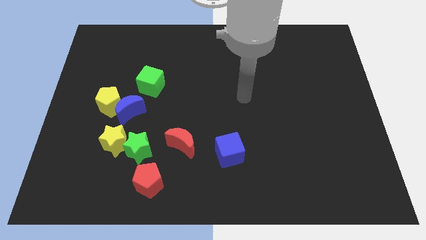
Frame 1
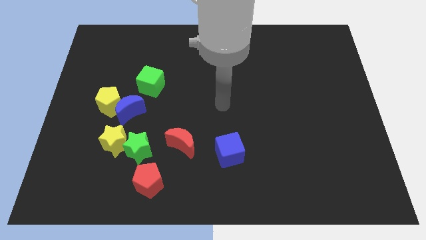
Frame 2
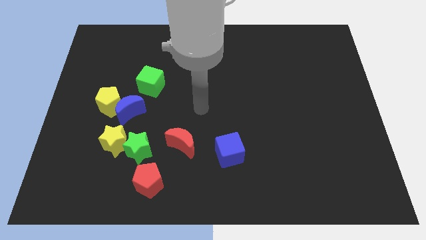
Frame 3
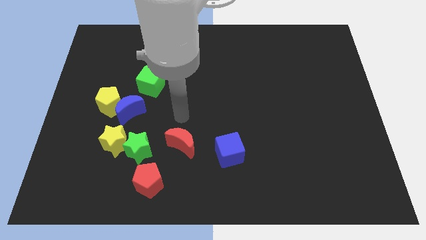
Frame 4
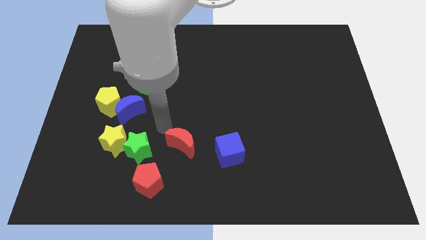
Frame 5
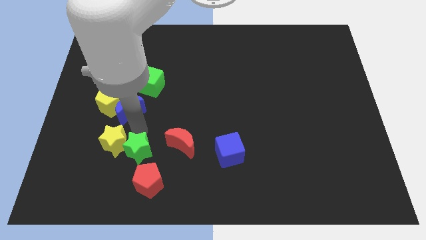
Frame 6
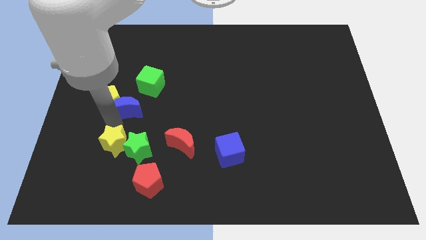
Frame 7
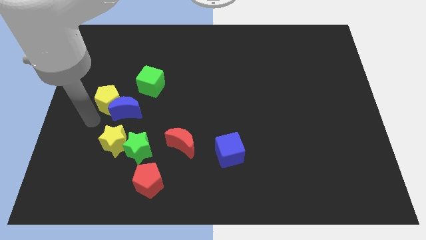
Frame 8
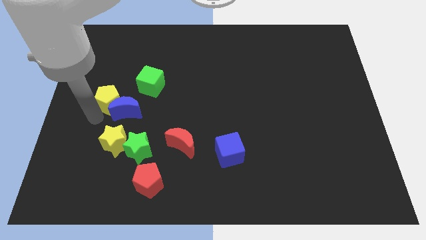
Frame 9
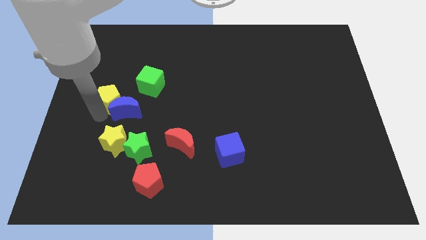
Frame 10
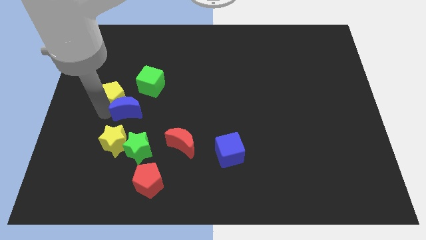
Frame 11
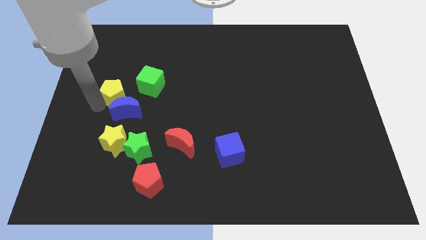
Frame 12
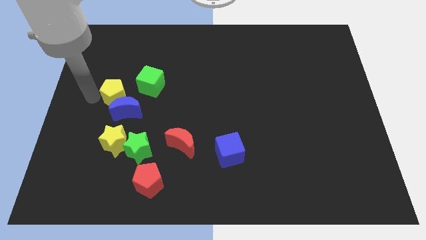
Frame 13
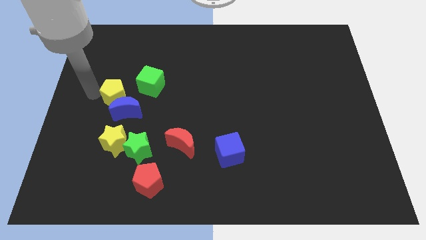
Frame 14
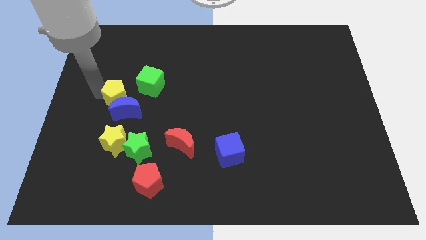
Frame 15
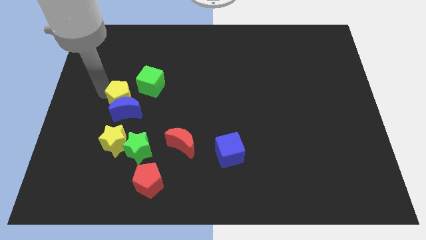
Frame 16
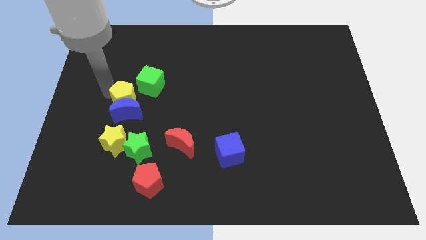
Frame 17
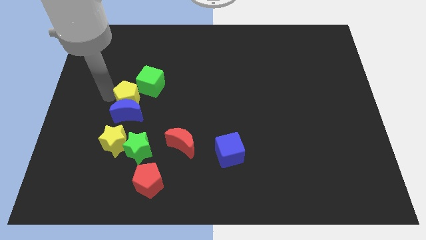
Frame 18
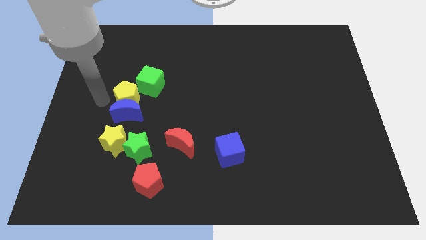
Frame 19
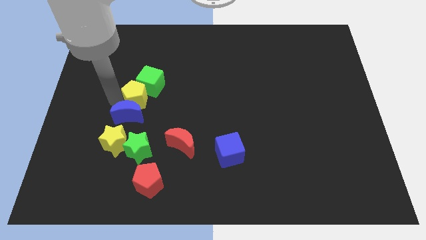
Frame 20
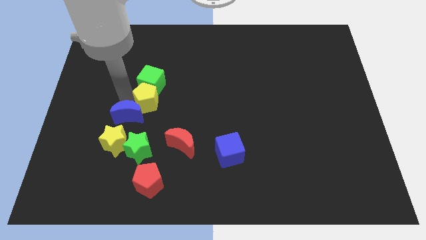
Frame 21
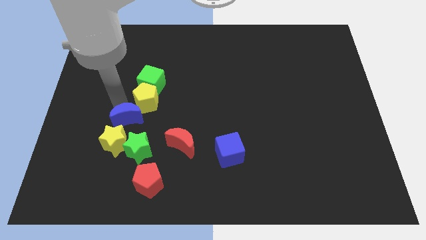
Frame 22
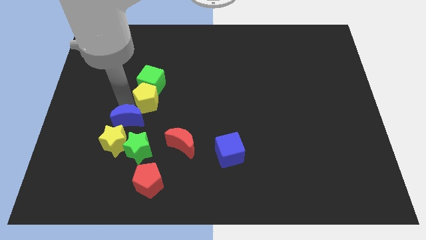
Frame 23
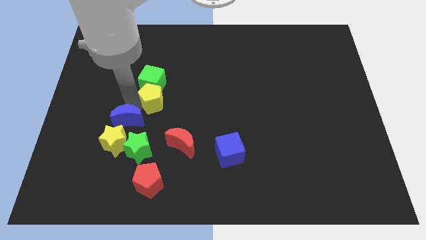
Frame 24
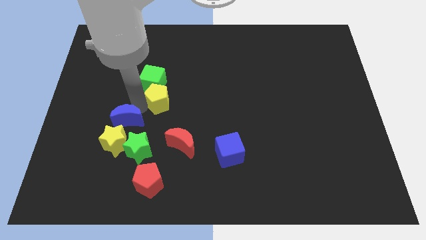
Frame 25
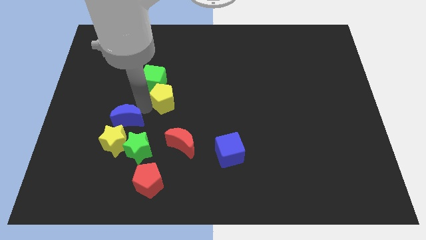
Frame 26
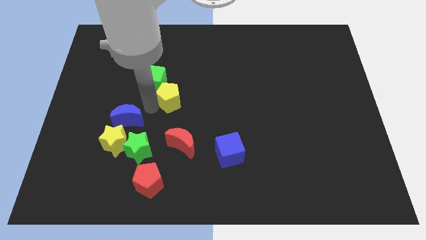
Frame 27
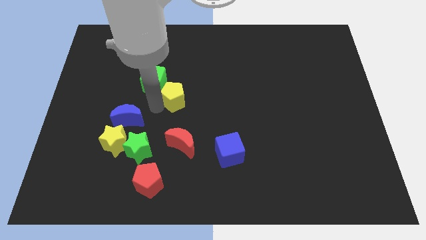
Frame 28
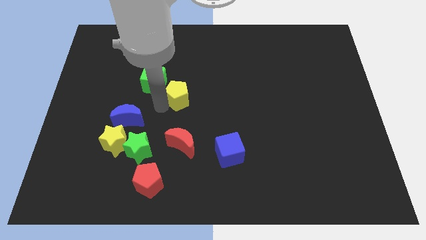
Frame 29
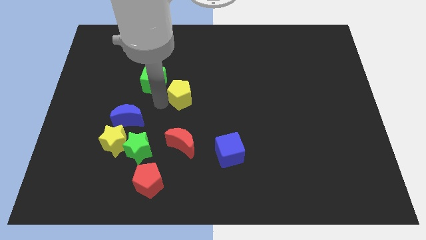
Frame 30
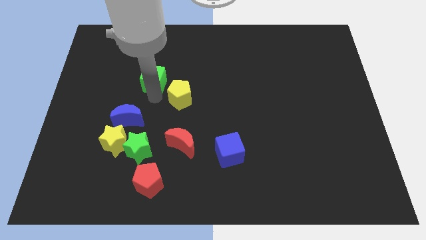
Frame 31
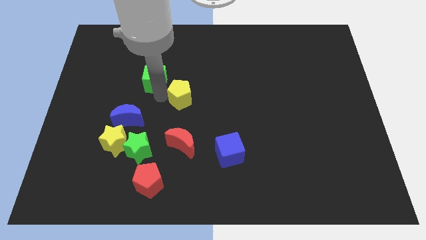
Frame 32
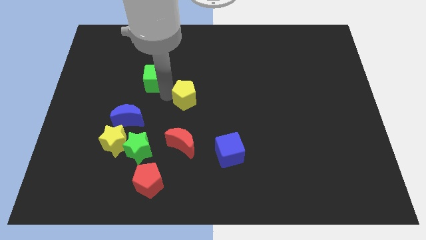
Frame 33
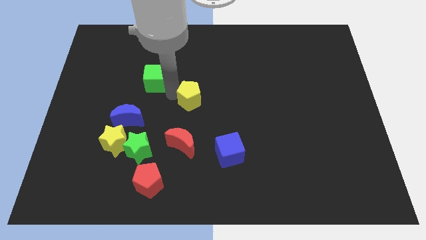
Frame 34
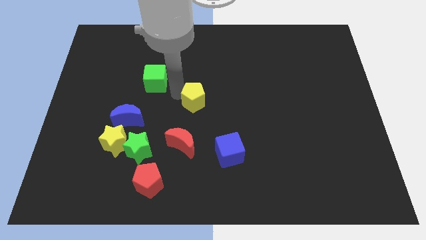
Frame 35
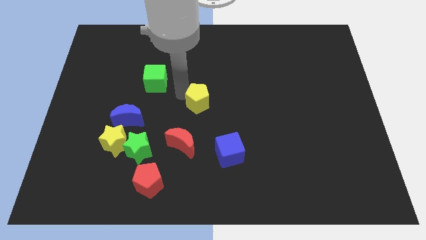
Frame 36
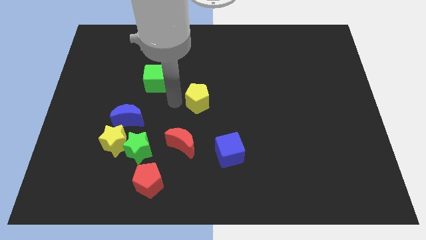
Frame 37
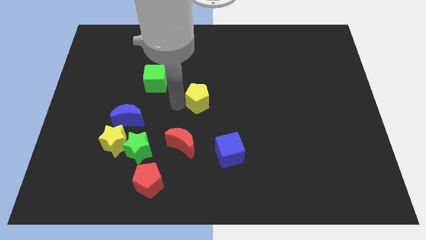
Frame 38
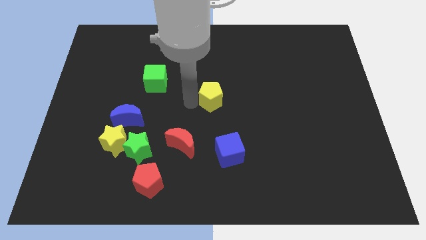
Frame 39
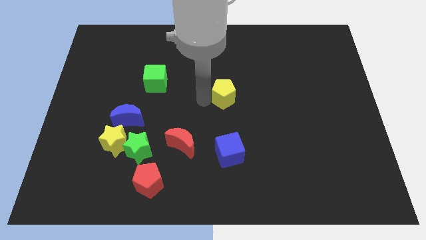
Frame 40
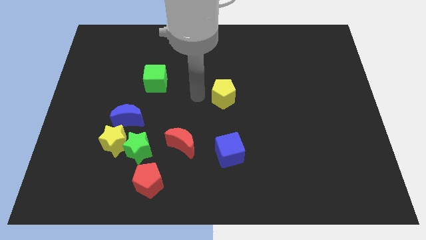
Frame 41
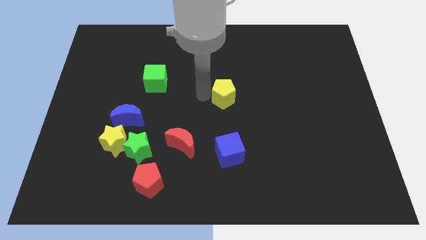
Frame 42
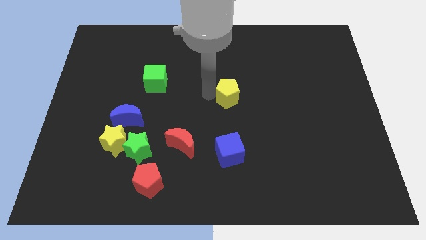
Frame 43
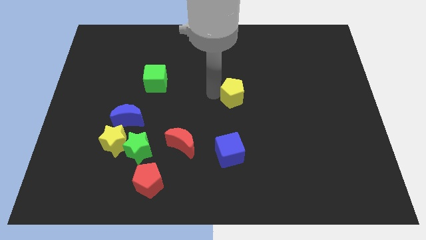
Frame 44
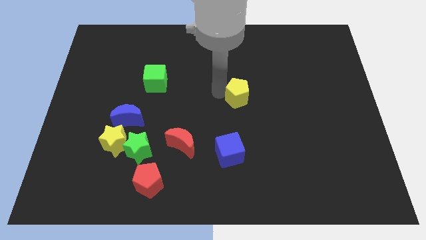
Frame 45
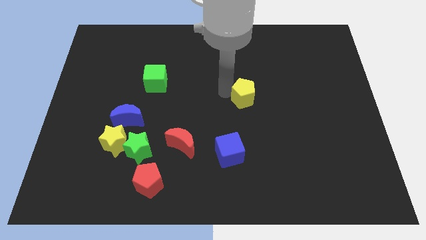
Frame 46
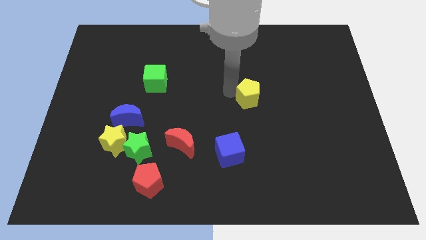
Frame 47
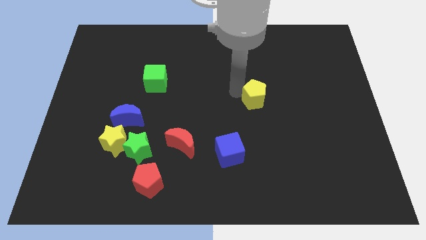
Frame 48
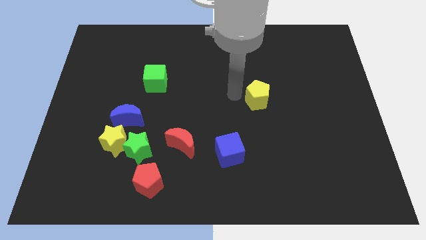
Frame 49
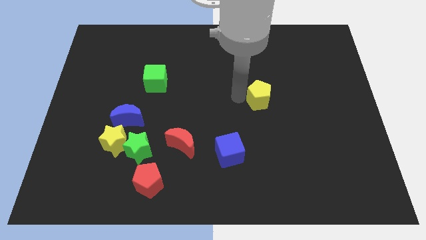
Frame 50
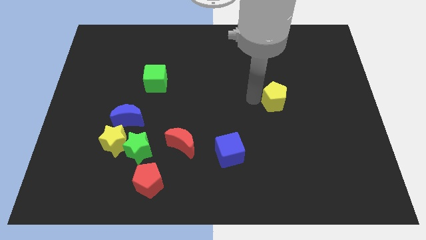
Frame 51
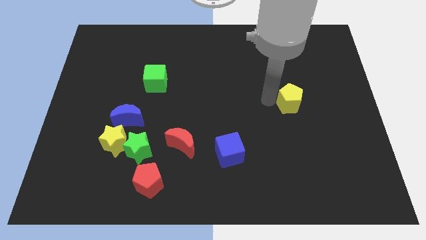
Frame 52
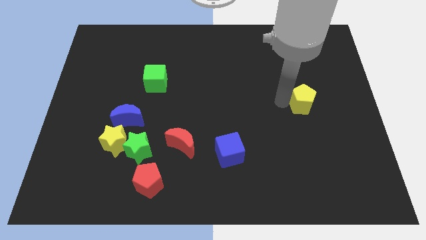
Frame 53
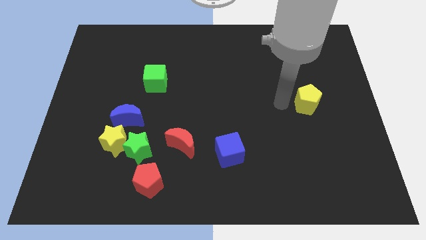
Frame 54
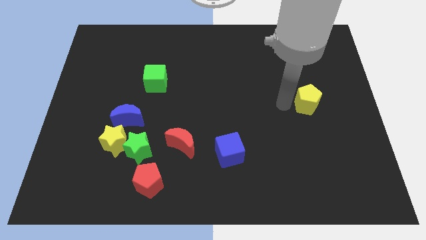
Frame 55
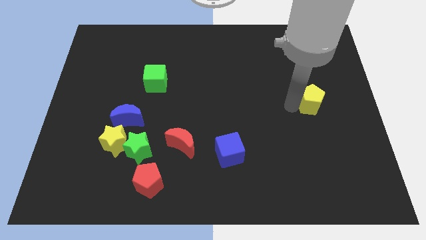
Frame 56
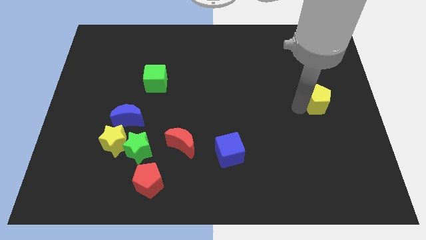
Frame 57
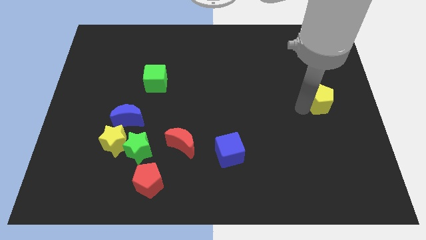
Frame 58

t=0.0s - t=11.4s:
move the yellow pentagon to the right side

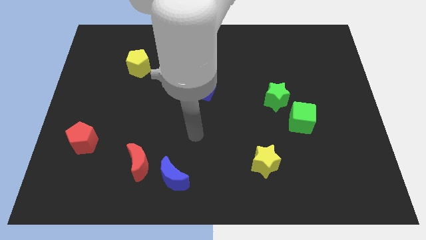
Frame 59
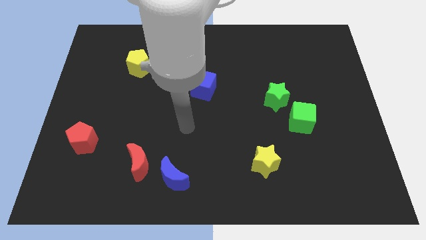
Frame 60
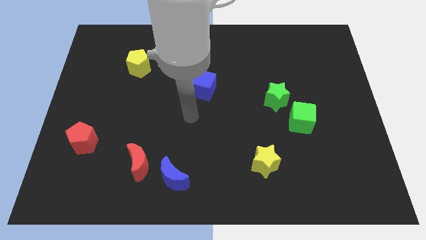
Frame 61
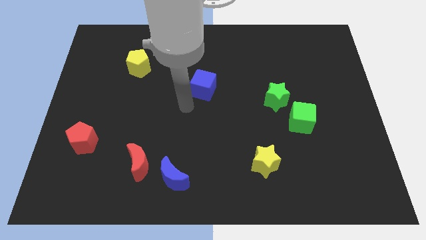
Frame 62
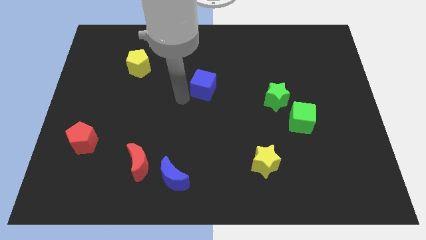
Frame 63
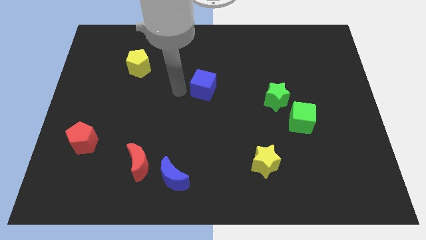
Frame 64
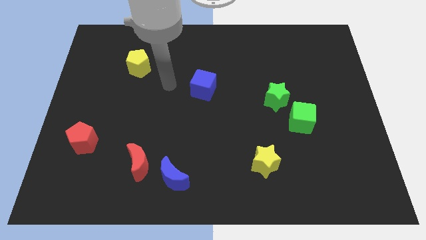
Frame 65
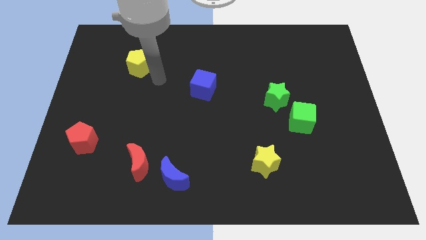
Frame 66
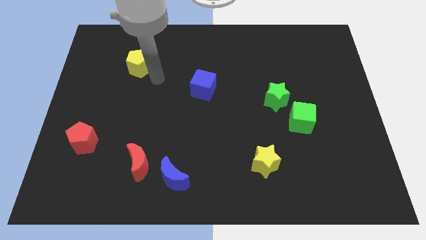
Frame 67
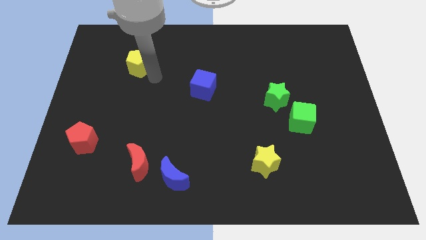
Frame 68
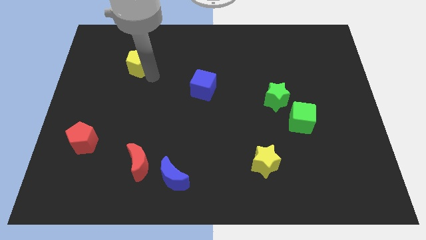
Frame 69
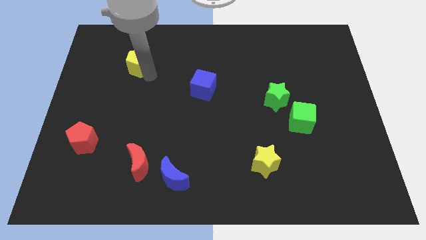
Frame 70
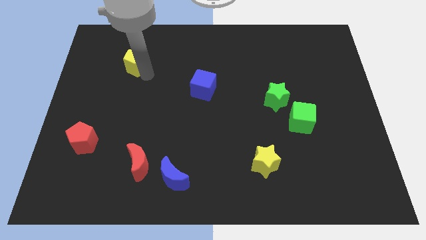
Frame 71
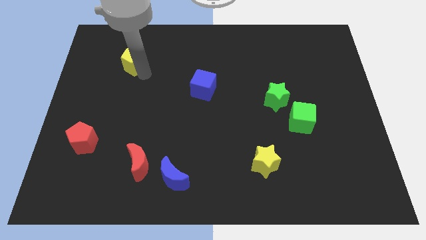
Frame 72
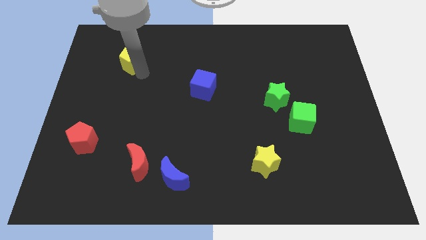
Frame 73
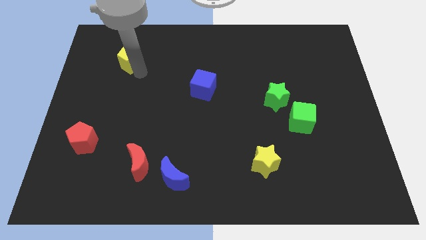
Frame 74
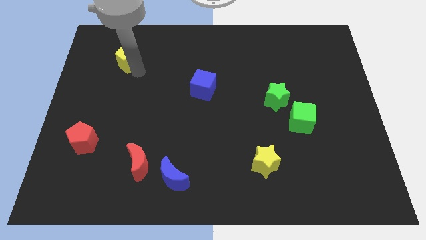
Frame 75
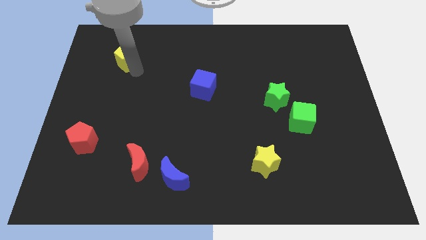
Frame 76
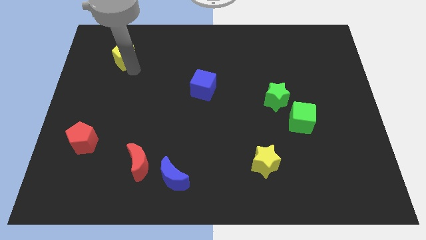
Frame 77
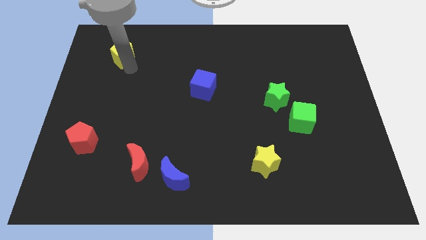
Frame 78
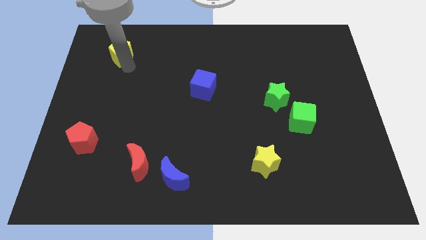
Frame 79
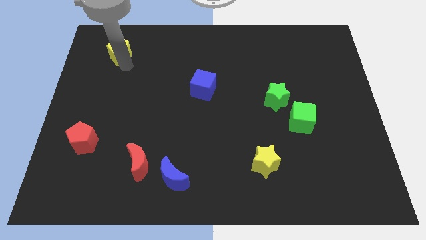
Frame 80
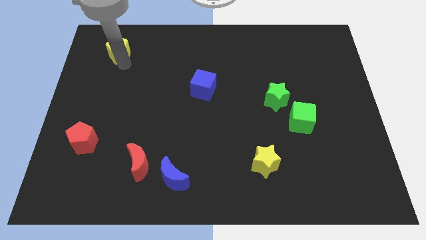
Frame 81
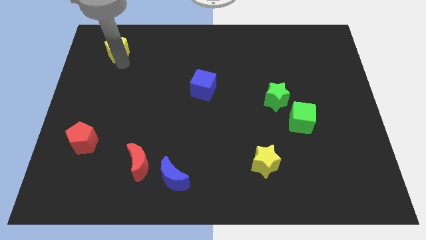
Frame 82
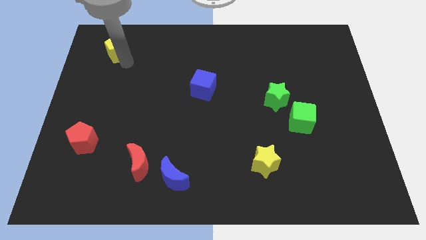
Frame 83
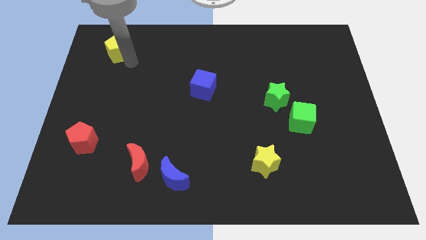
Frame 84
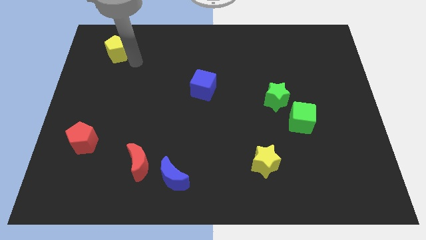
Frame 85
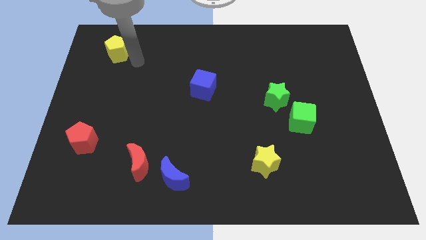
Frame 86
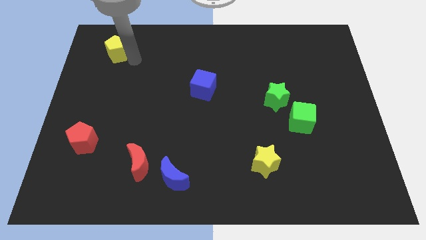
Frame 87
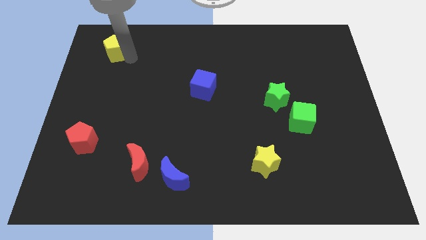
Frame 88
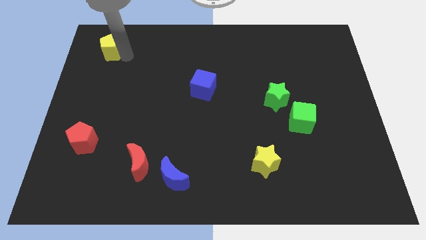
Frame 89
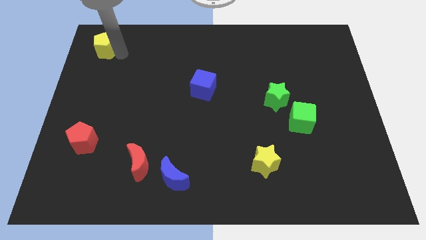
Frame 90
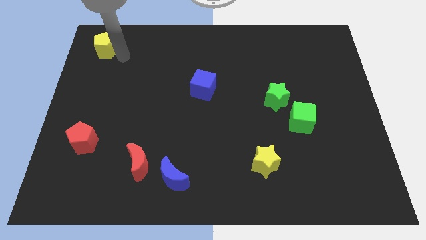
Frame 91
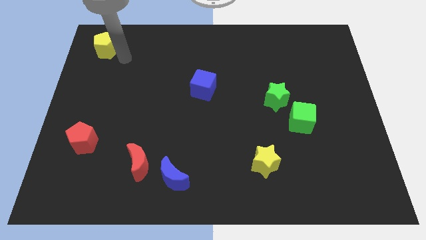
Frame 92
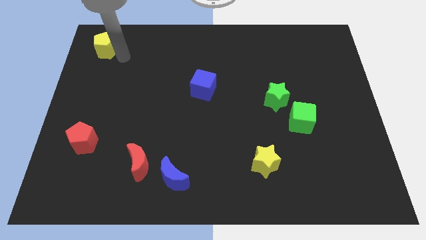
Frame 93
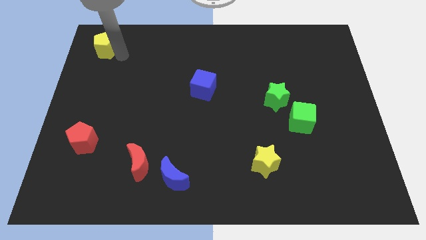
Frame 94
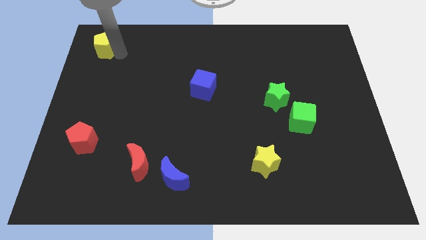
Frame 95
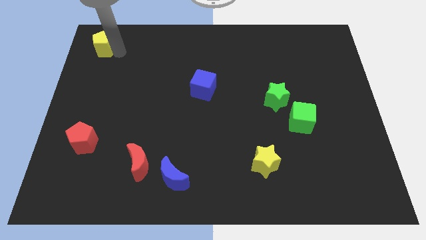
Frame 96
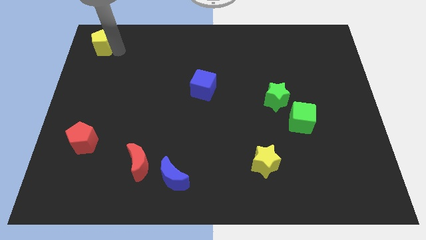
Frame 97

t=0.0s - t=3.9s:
slide the yellow pentagon to the top left
